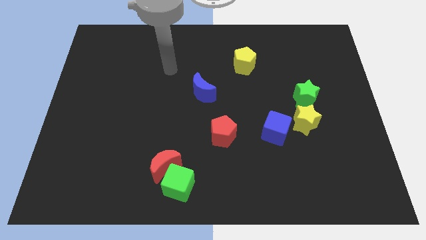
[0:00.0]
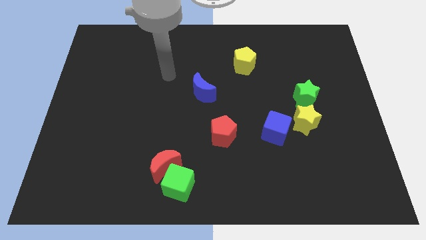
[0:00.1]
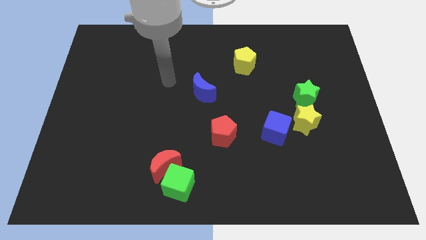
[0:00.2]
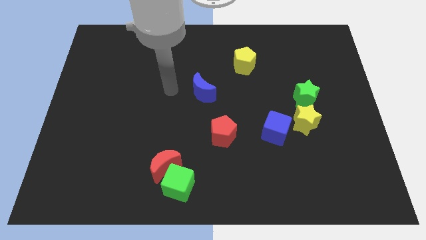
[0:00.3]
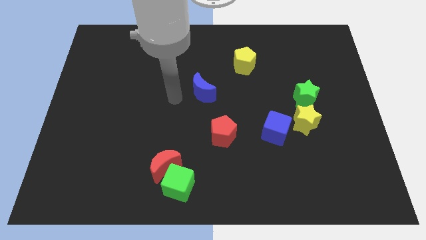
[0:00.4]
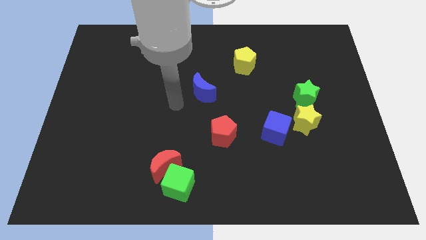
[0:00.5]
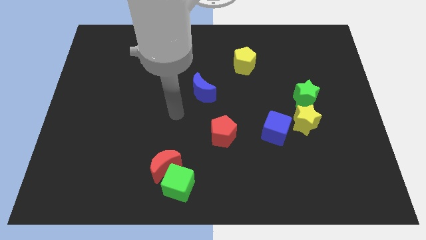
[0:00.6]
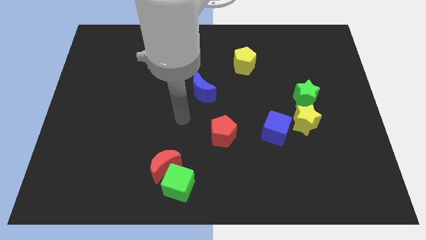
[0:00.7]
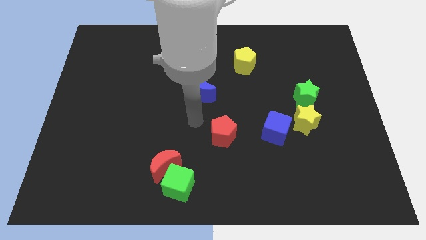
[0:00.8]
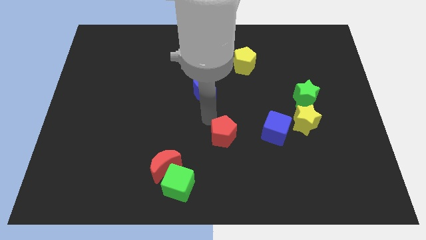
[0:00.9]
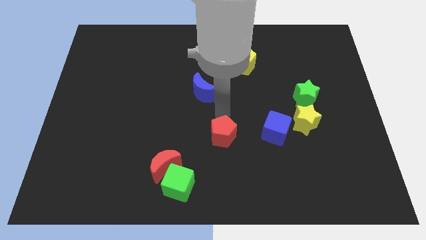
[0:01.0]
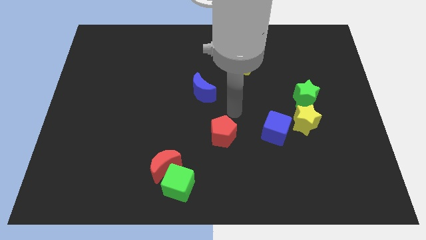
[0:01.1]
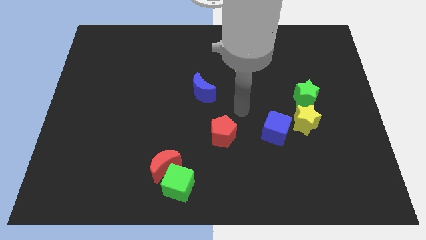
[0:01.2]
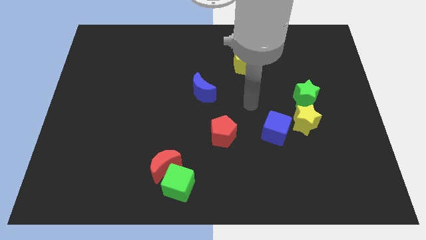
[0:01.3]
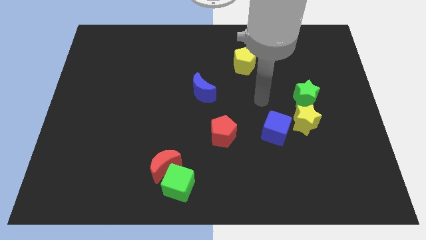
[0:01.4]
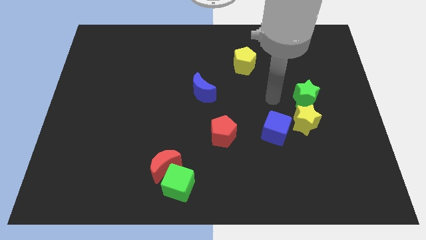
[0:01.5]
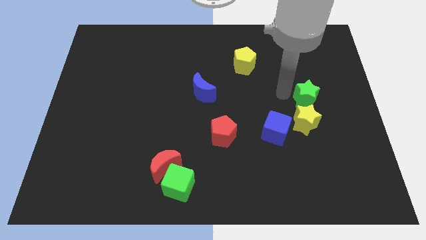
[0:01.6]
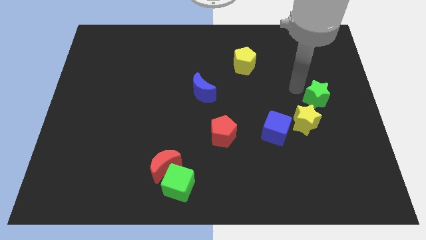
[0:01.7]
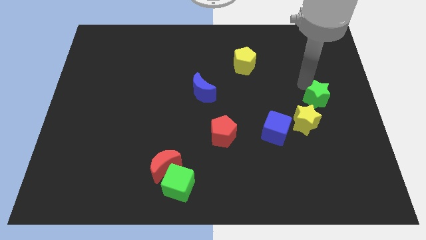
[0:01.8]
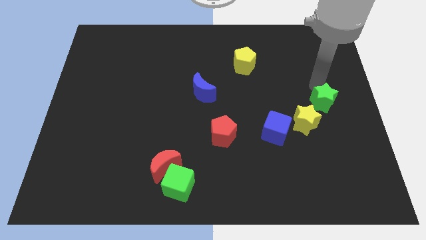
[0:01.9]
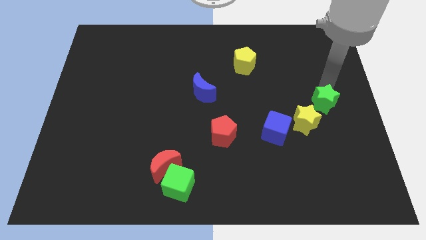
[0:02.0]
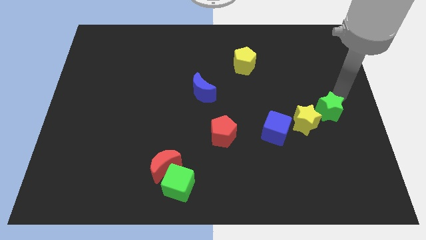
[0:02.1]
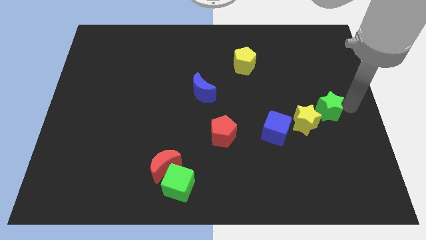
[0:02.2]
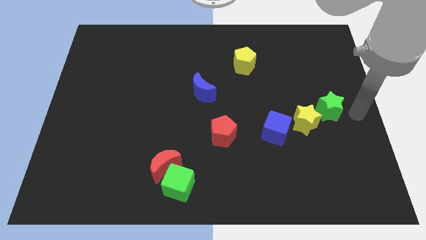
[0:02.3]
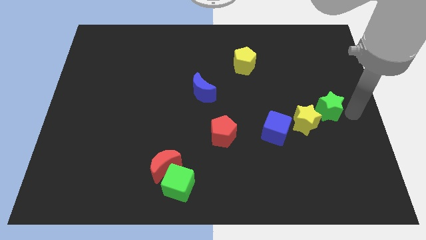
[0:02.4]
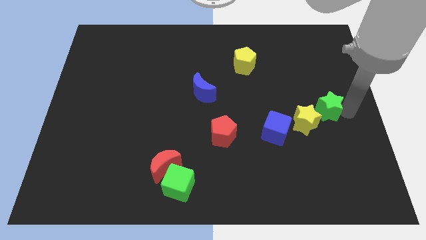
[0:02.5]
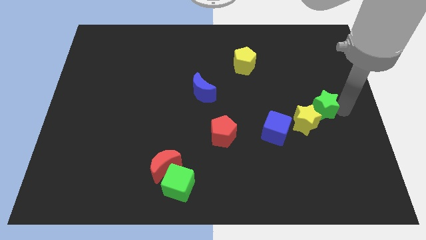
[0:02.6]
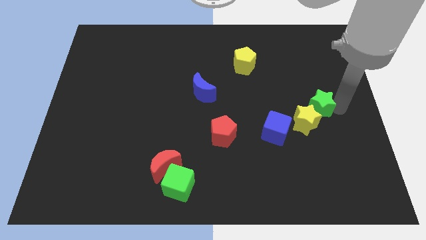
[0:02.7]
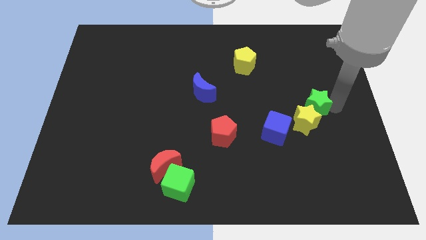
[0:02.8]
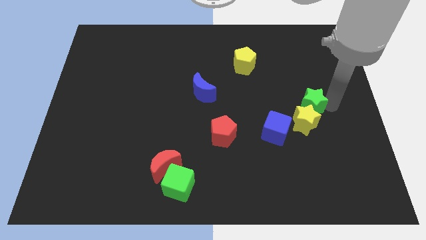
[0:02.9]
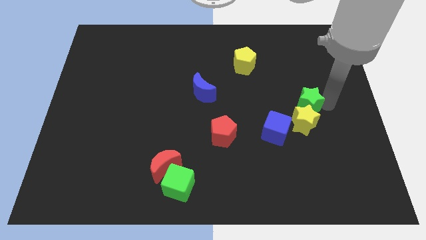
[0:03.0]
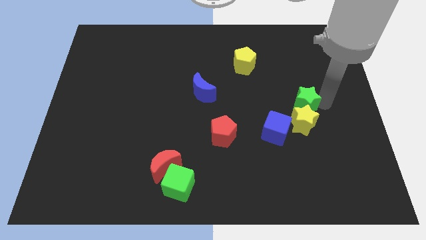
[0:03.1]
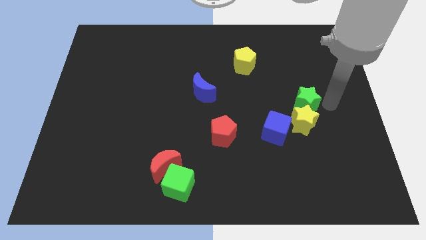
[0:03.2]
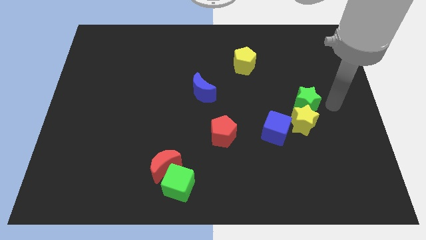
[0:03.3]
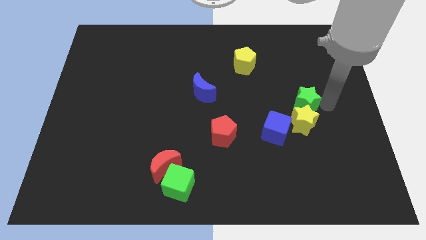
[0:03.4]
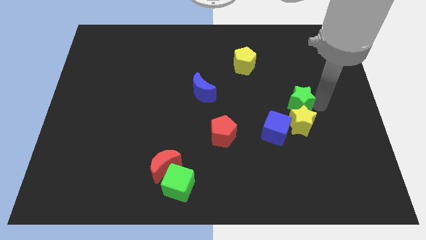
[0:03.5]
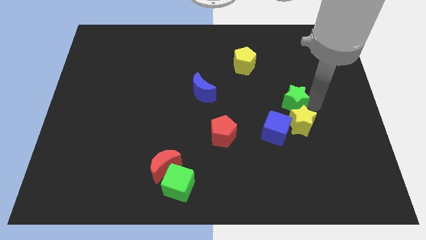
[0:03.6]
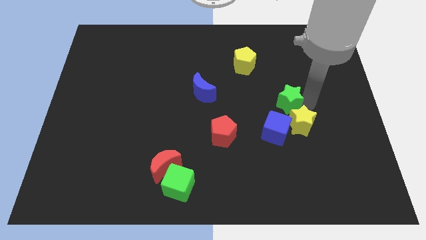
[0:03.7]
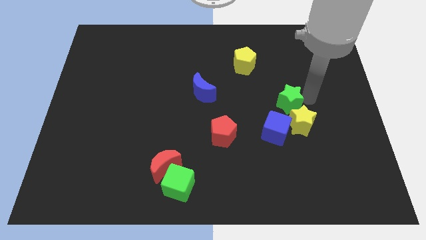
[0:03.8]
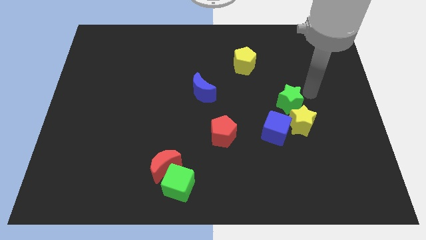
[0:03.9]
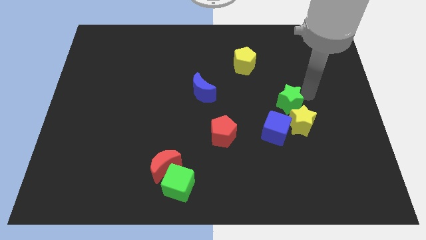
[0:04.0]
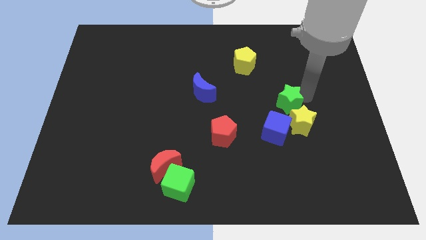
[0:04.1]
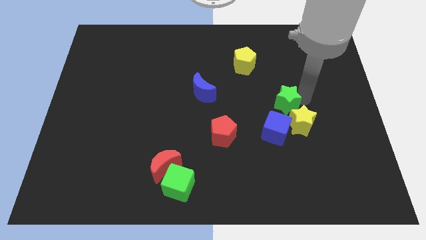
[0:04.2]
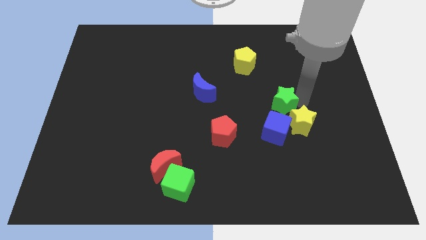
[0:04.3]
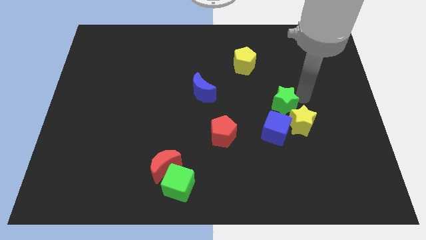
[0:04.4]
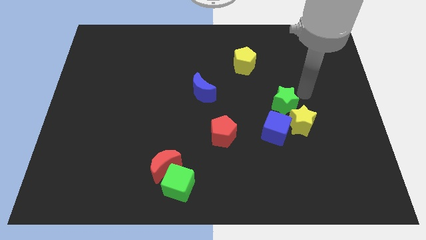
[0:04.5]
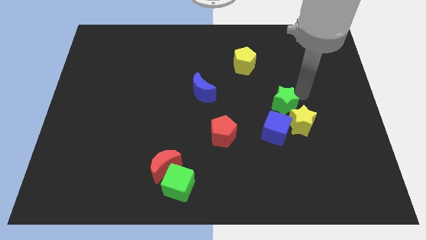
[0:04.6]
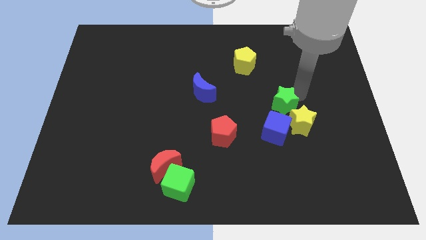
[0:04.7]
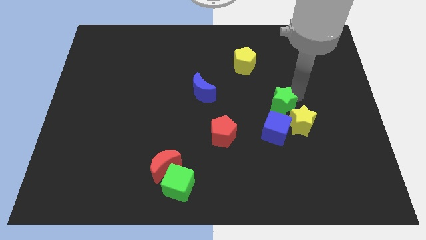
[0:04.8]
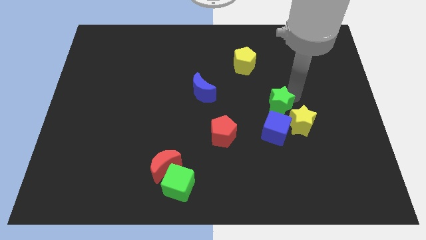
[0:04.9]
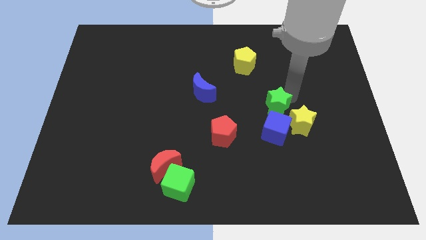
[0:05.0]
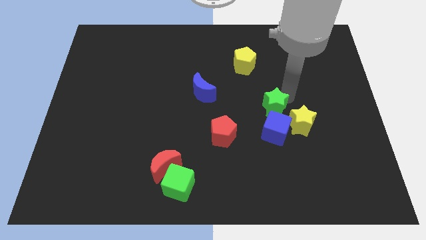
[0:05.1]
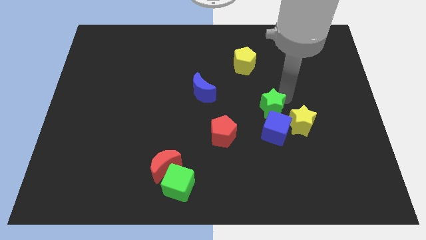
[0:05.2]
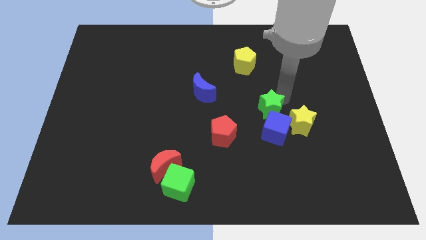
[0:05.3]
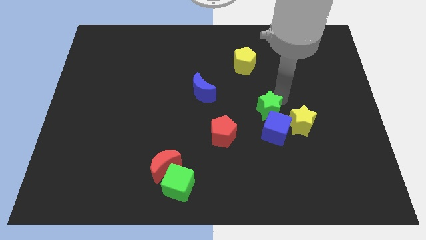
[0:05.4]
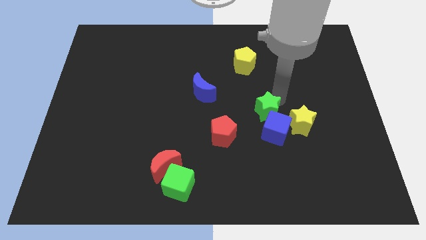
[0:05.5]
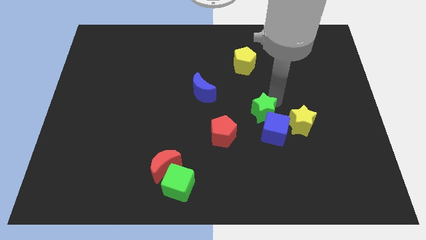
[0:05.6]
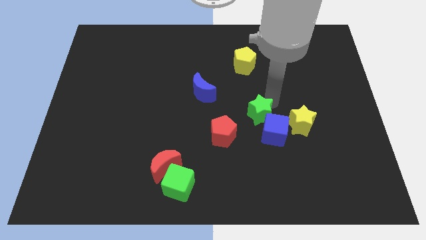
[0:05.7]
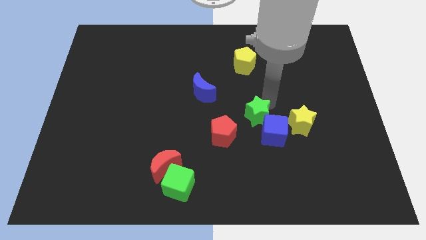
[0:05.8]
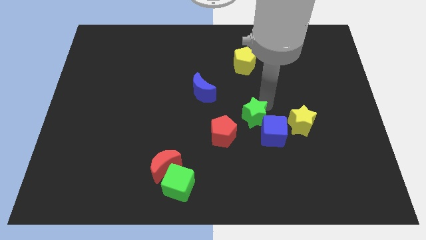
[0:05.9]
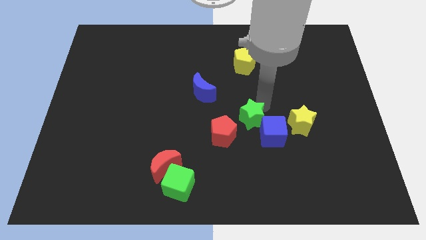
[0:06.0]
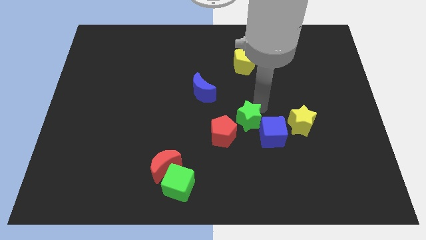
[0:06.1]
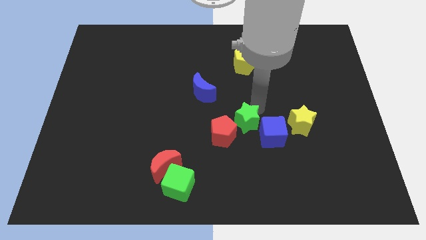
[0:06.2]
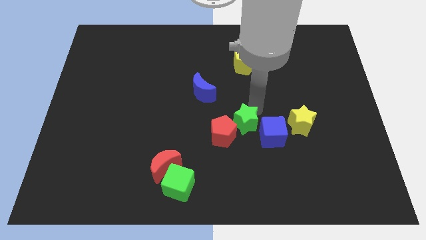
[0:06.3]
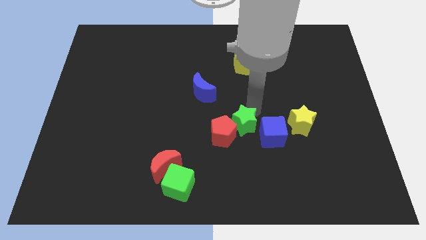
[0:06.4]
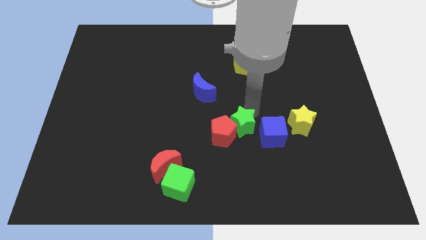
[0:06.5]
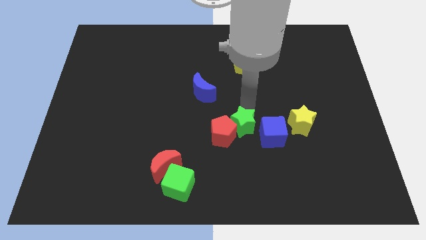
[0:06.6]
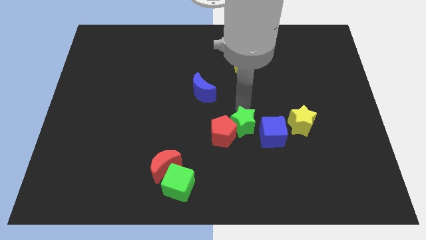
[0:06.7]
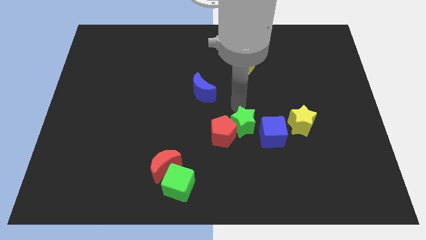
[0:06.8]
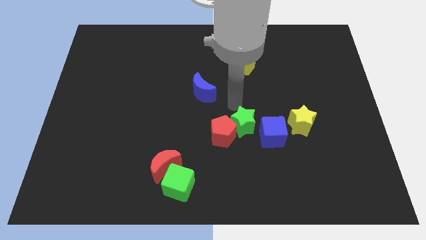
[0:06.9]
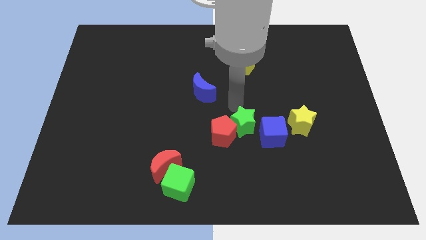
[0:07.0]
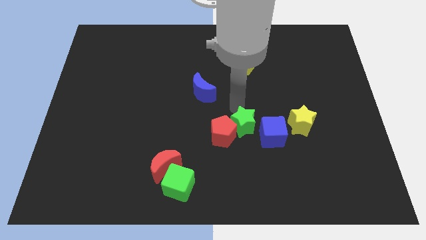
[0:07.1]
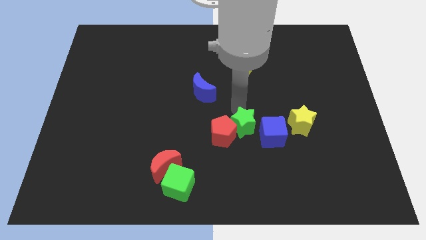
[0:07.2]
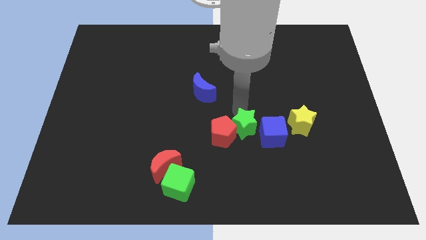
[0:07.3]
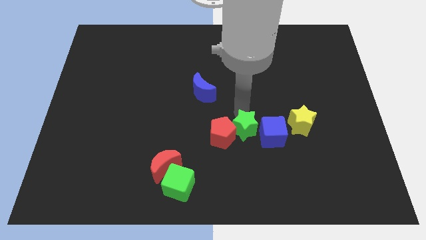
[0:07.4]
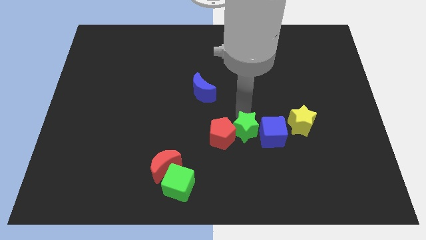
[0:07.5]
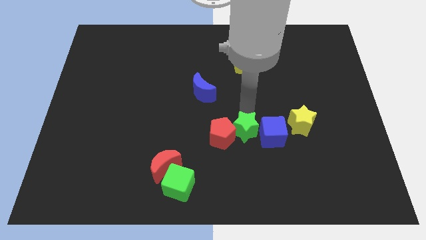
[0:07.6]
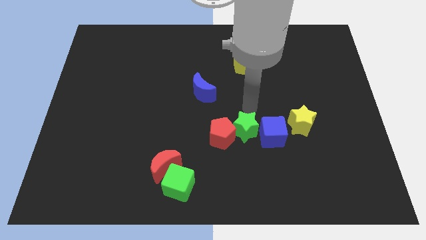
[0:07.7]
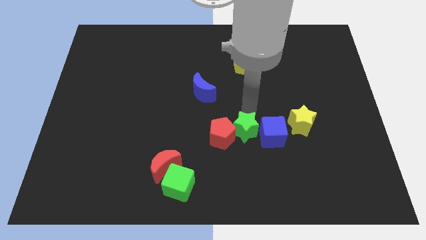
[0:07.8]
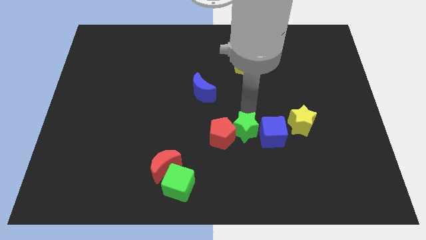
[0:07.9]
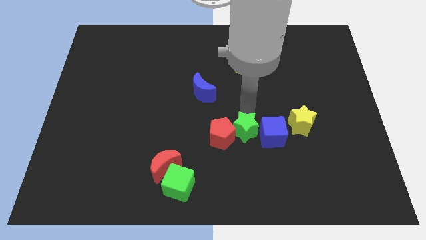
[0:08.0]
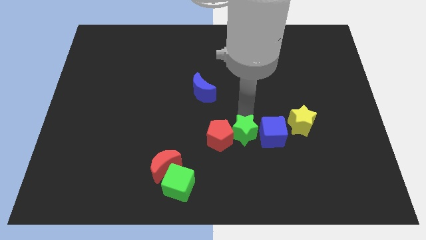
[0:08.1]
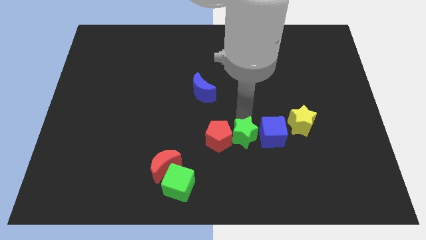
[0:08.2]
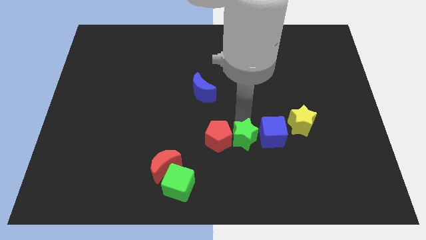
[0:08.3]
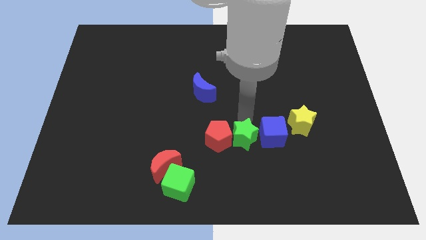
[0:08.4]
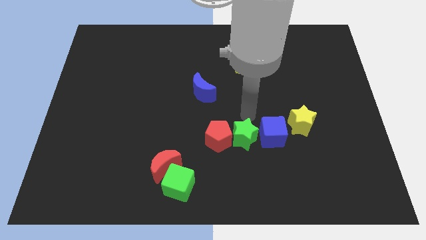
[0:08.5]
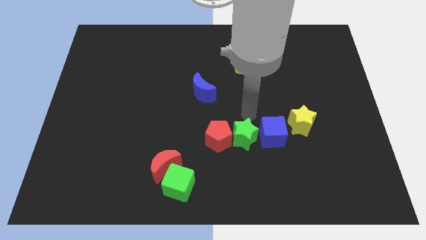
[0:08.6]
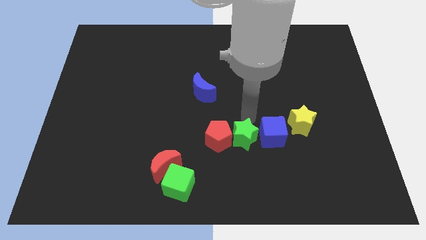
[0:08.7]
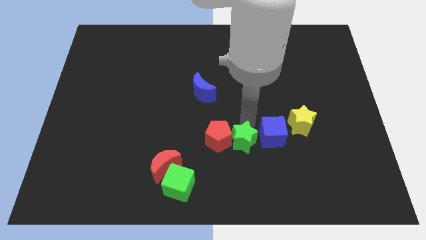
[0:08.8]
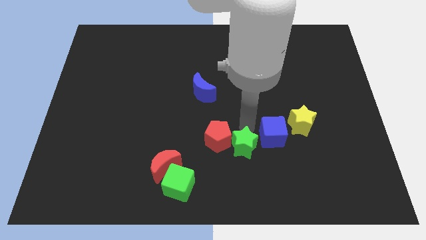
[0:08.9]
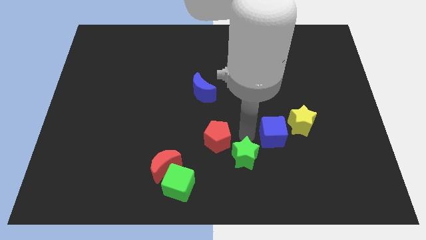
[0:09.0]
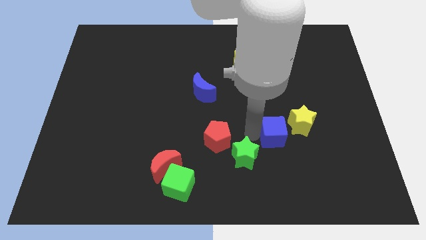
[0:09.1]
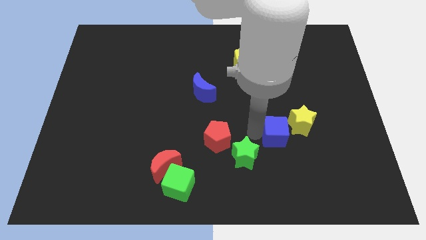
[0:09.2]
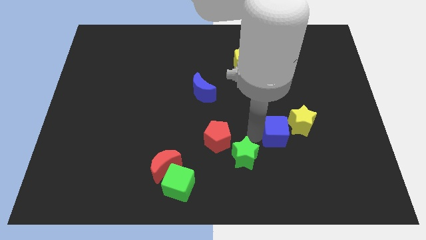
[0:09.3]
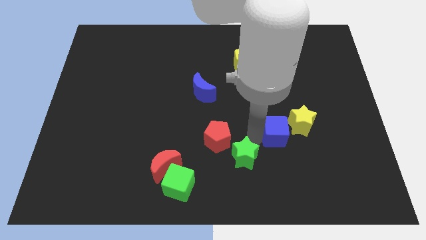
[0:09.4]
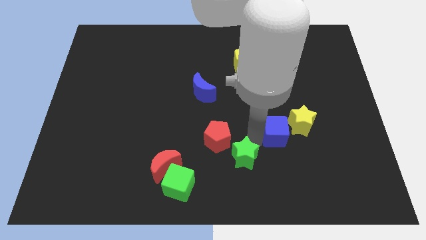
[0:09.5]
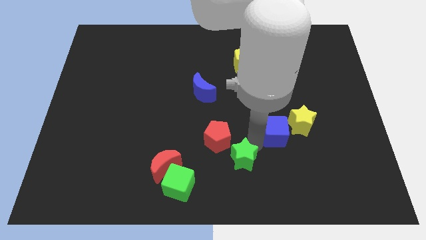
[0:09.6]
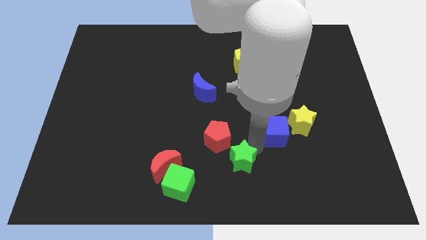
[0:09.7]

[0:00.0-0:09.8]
move the green star to the bottom side
